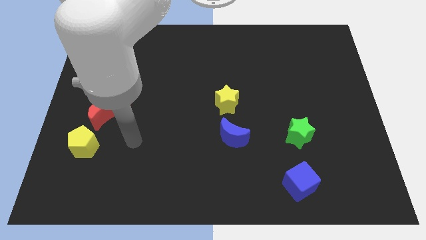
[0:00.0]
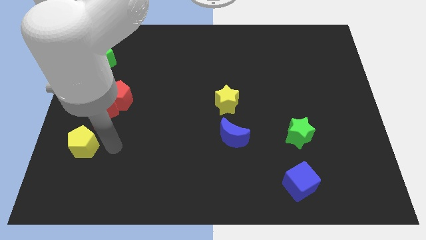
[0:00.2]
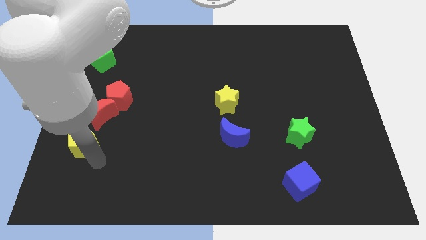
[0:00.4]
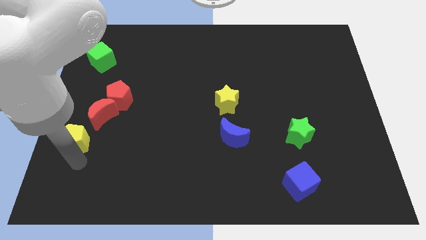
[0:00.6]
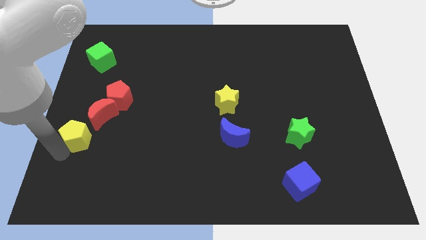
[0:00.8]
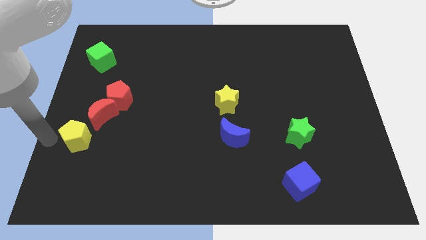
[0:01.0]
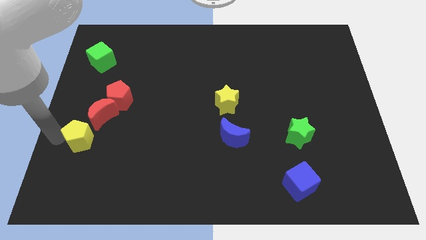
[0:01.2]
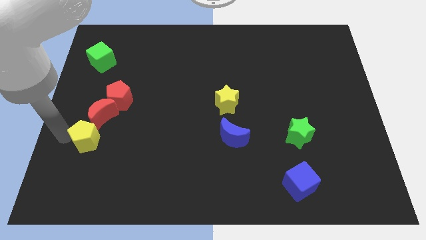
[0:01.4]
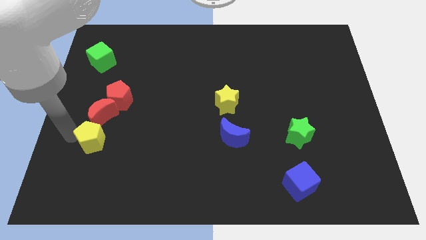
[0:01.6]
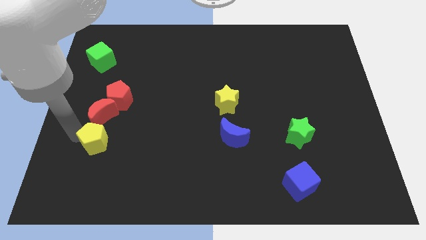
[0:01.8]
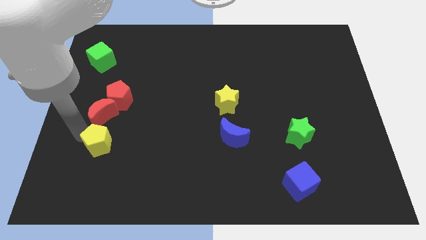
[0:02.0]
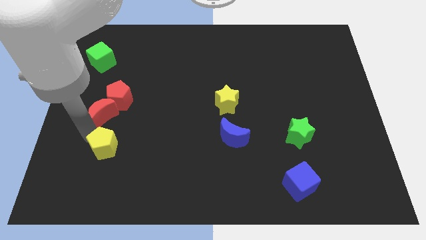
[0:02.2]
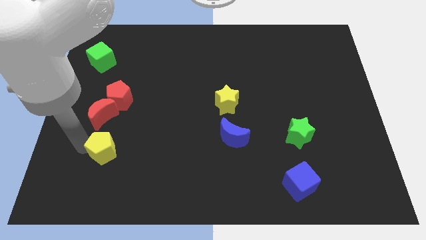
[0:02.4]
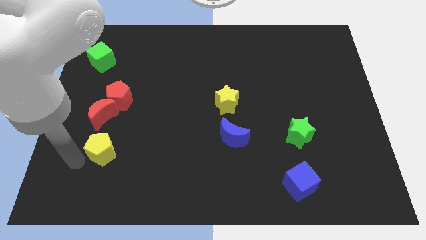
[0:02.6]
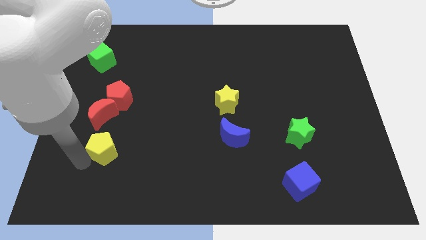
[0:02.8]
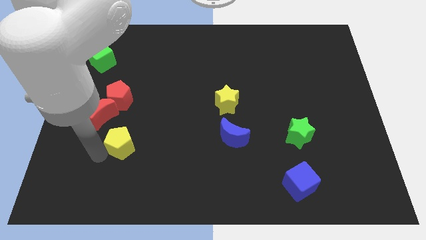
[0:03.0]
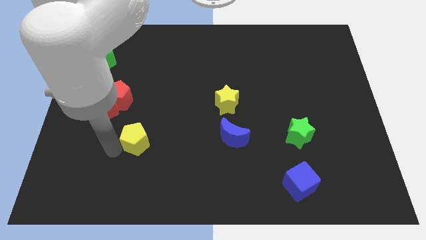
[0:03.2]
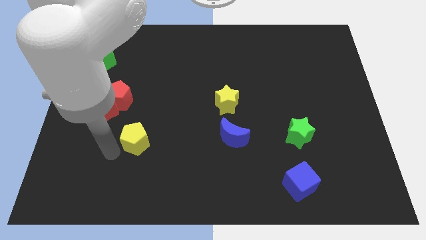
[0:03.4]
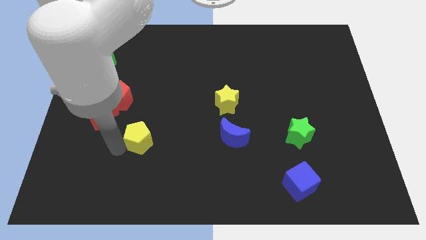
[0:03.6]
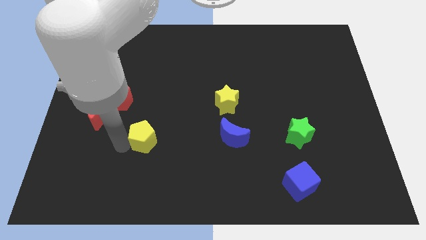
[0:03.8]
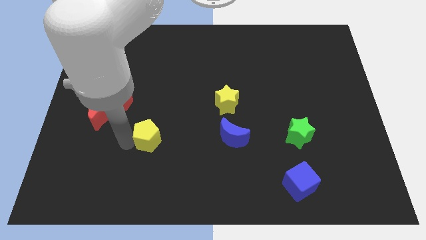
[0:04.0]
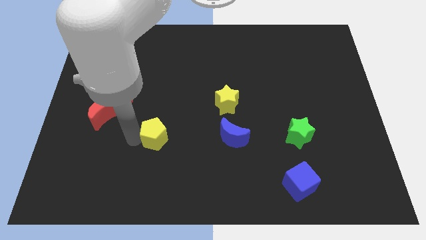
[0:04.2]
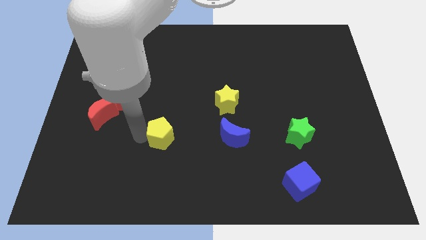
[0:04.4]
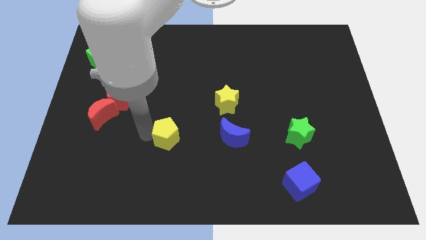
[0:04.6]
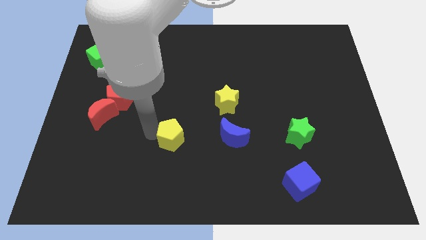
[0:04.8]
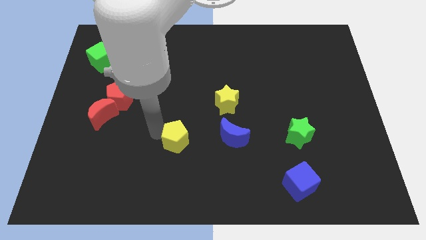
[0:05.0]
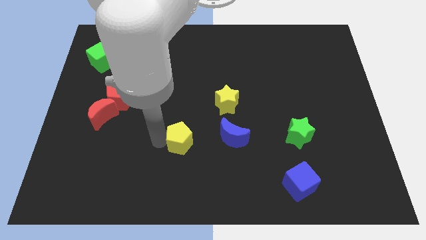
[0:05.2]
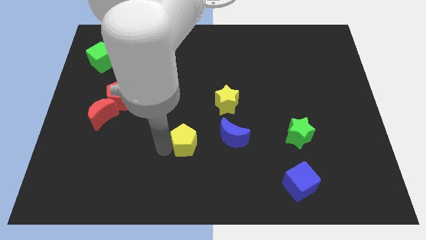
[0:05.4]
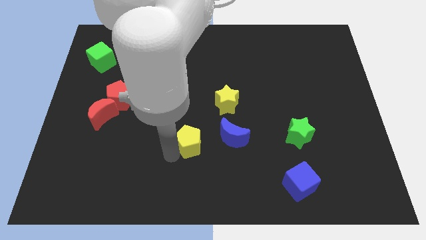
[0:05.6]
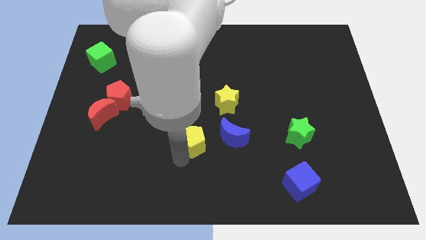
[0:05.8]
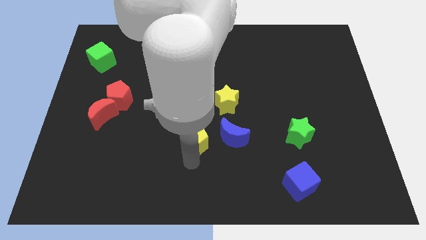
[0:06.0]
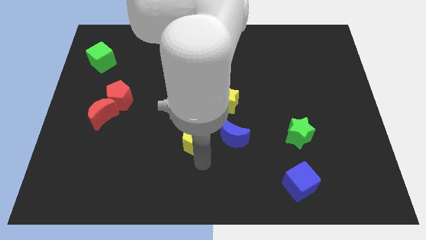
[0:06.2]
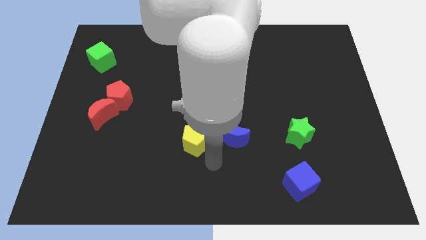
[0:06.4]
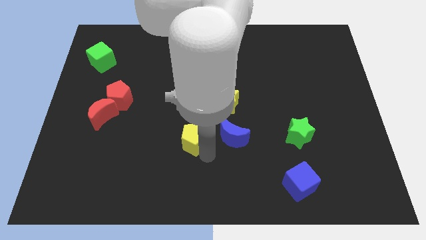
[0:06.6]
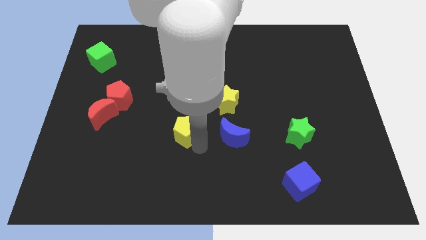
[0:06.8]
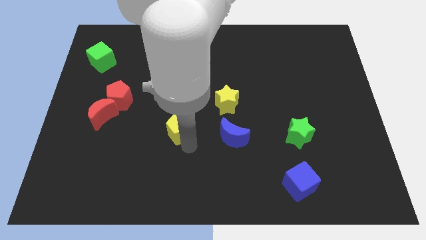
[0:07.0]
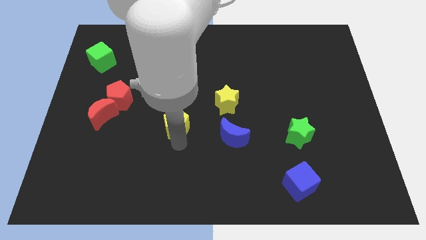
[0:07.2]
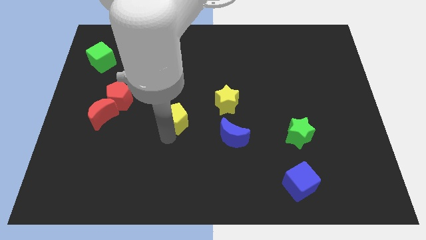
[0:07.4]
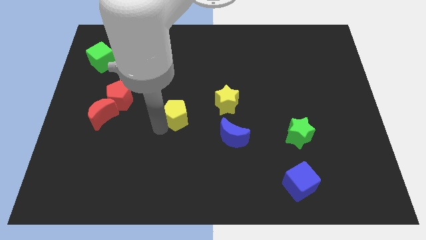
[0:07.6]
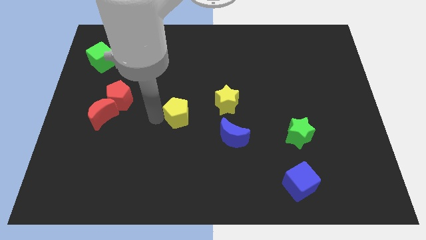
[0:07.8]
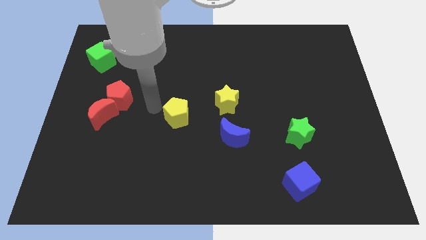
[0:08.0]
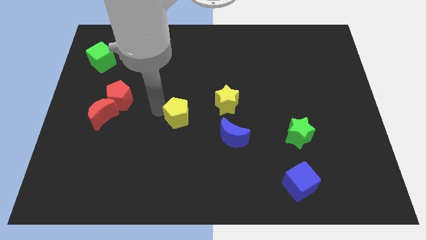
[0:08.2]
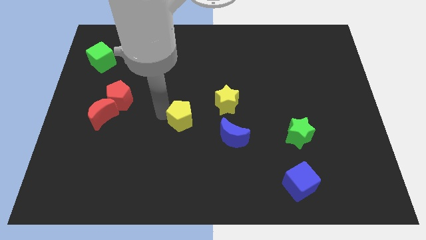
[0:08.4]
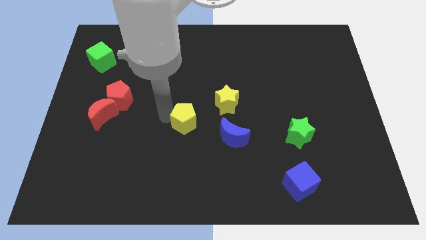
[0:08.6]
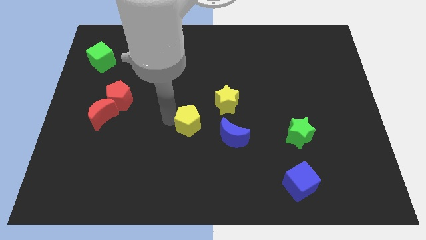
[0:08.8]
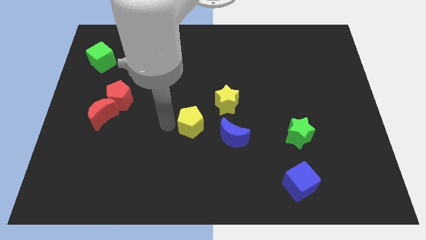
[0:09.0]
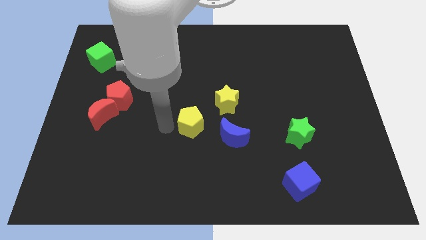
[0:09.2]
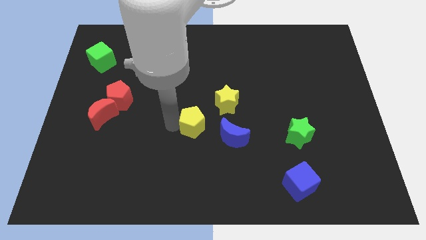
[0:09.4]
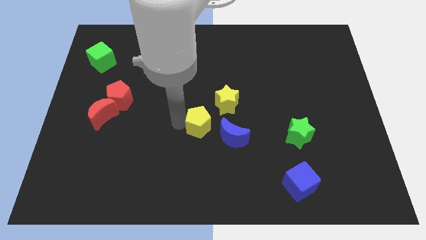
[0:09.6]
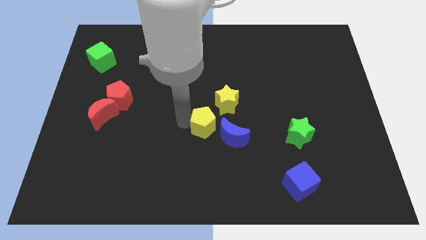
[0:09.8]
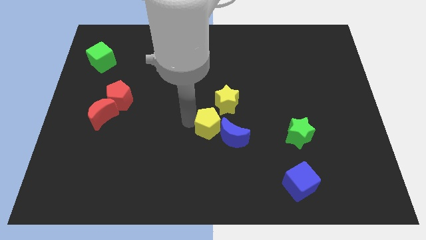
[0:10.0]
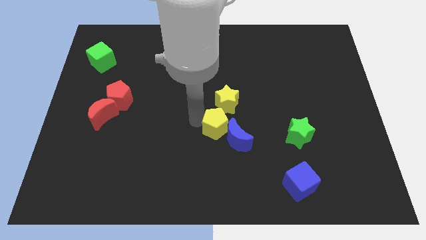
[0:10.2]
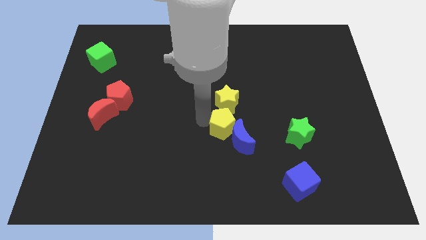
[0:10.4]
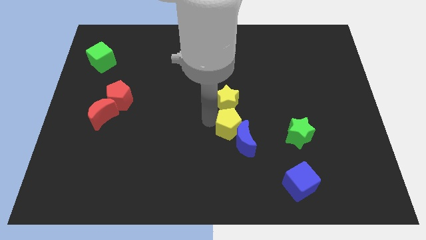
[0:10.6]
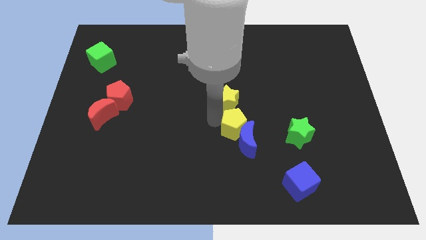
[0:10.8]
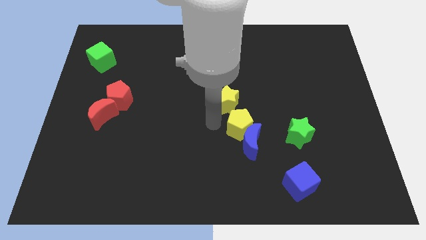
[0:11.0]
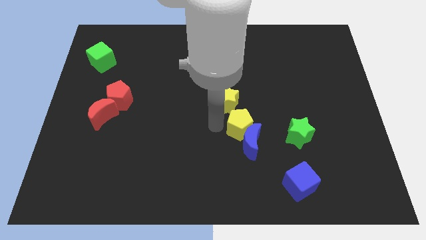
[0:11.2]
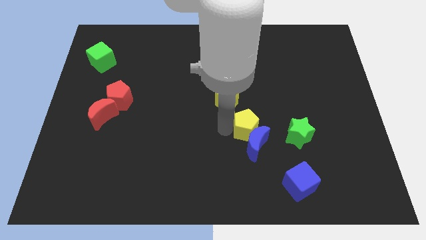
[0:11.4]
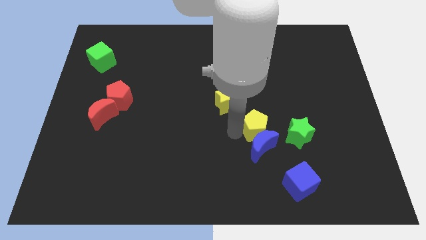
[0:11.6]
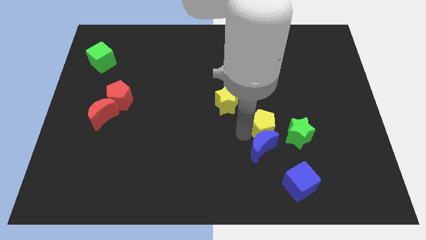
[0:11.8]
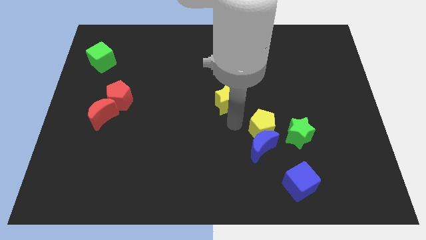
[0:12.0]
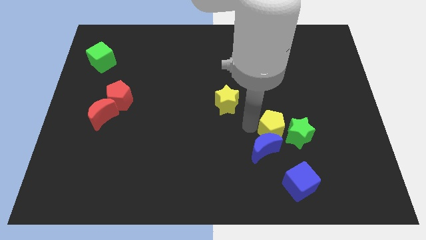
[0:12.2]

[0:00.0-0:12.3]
move the yellow pentagon to the green star

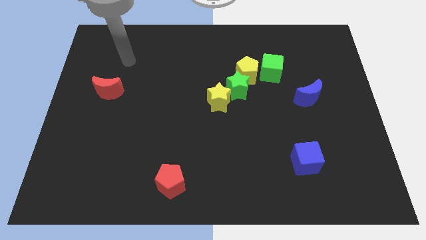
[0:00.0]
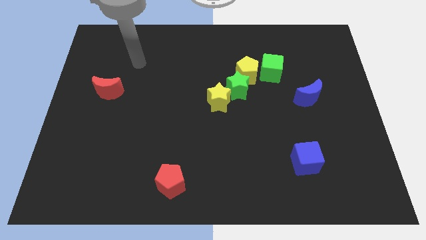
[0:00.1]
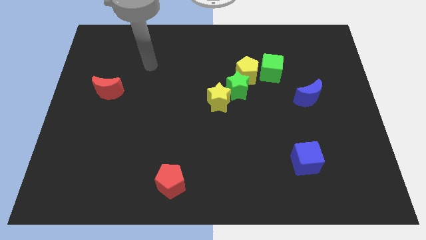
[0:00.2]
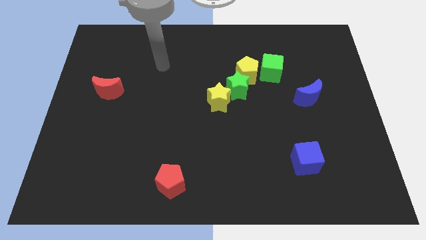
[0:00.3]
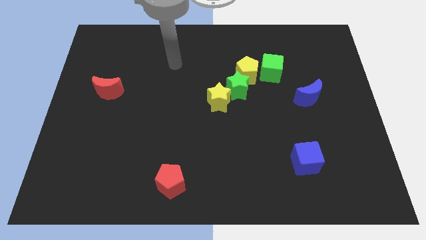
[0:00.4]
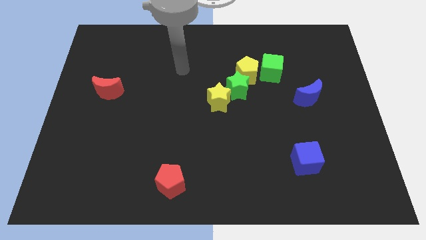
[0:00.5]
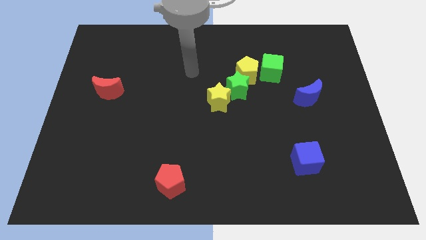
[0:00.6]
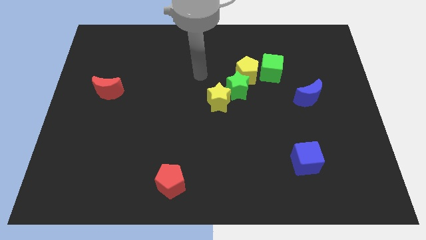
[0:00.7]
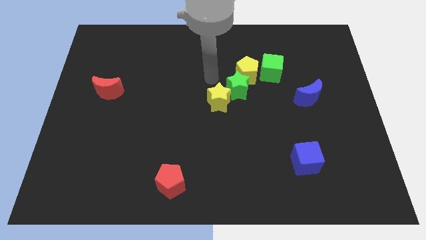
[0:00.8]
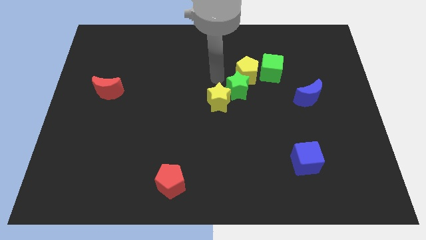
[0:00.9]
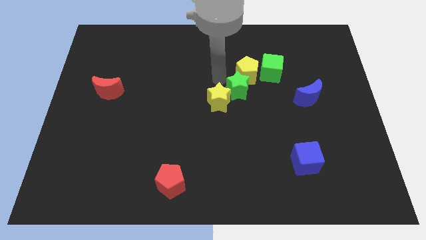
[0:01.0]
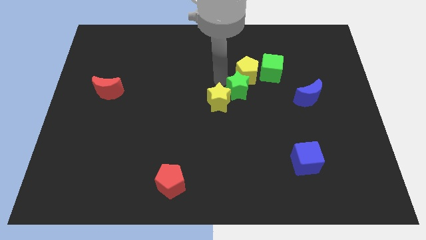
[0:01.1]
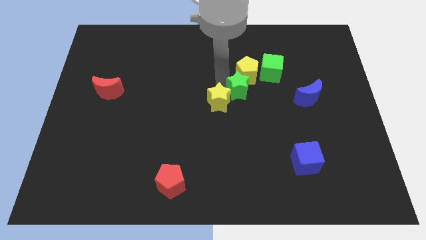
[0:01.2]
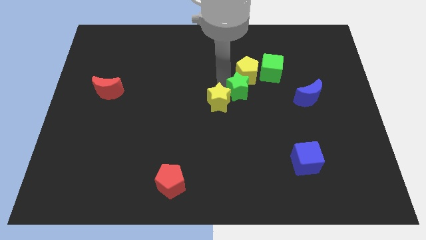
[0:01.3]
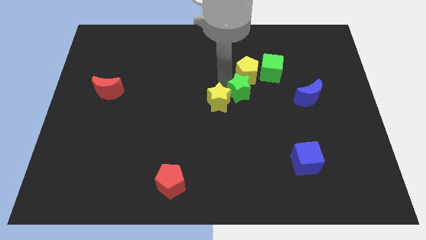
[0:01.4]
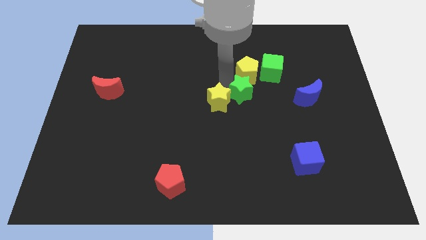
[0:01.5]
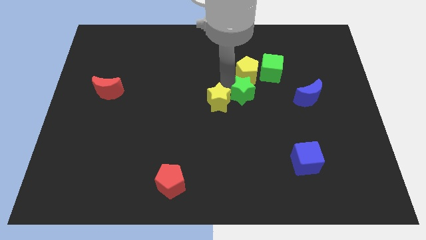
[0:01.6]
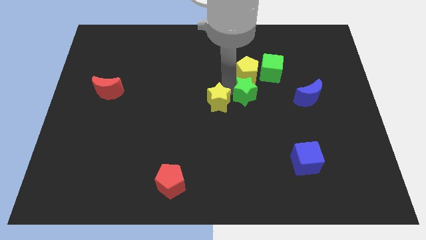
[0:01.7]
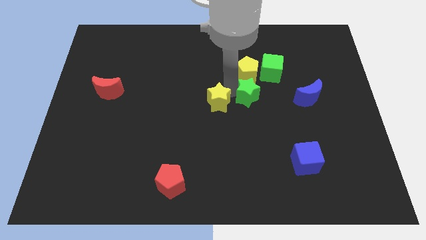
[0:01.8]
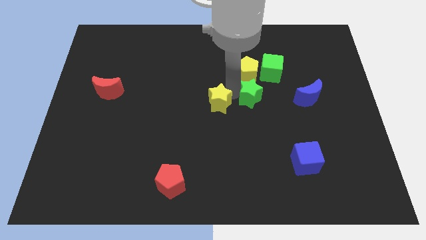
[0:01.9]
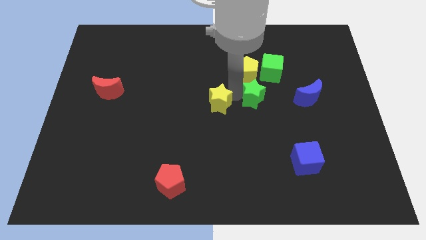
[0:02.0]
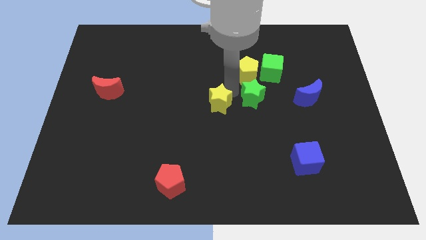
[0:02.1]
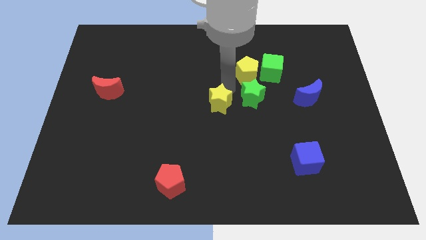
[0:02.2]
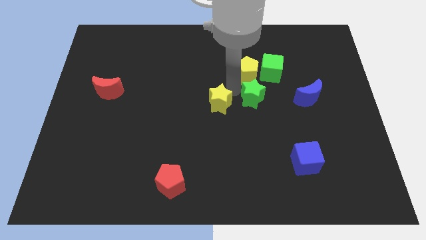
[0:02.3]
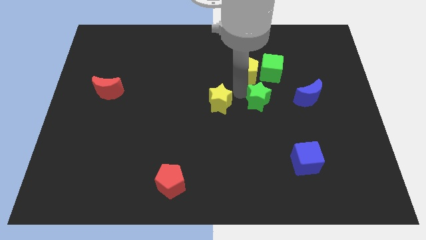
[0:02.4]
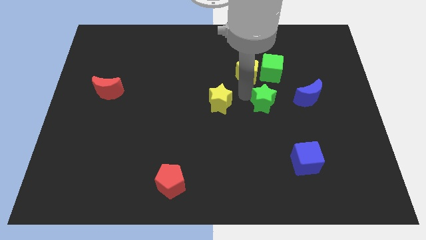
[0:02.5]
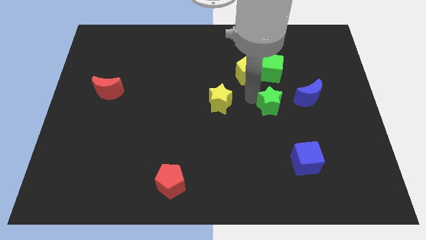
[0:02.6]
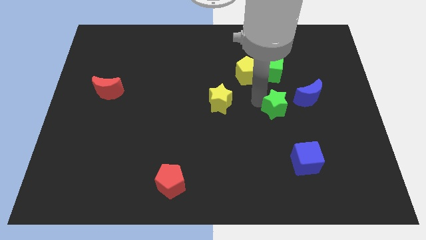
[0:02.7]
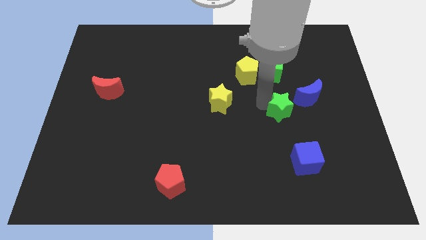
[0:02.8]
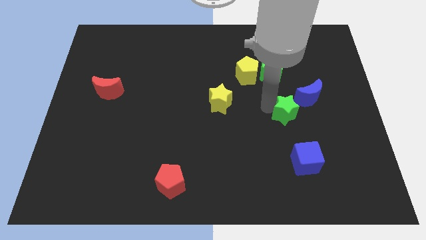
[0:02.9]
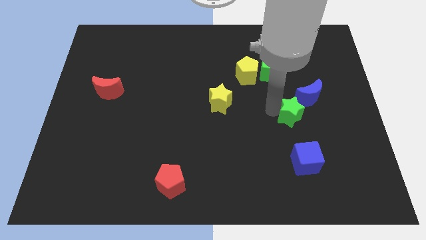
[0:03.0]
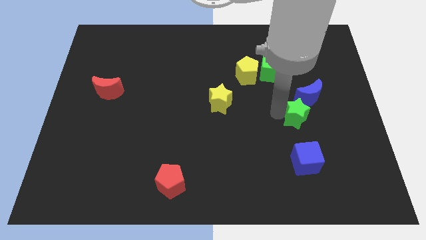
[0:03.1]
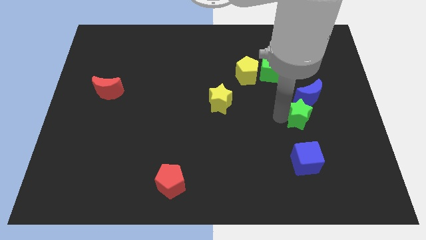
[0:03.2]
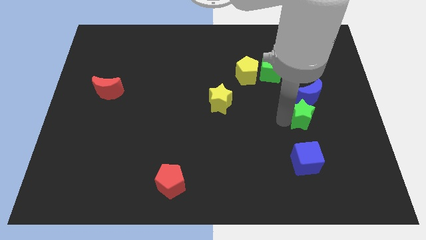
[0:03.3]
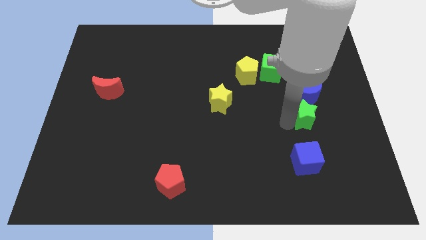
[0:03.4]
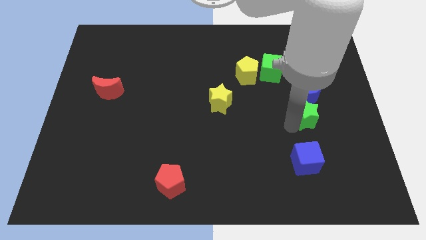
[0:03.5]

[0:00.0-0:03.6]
move the green star towards the blue moon
